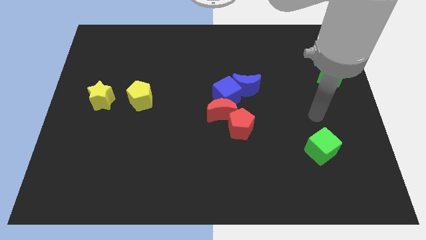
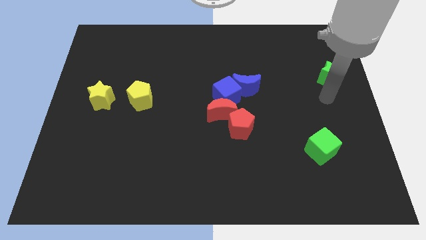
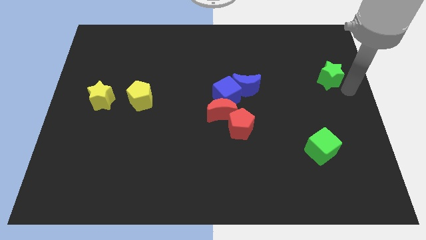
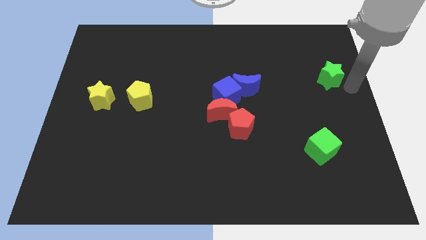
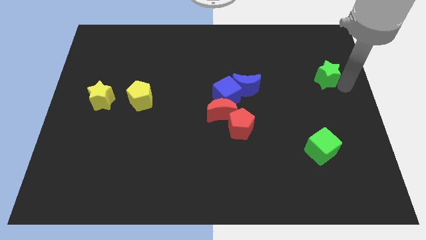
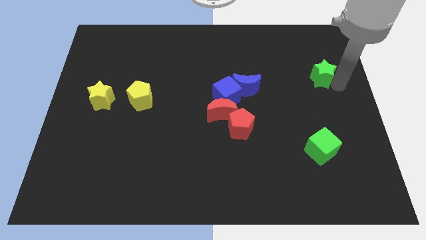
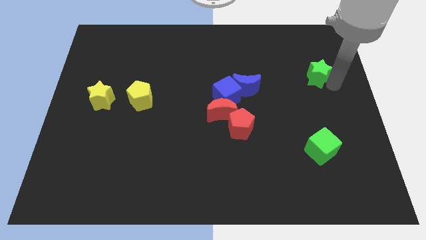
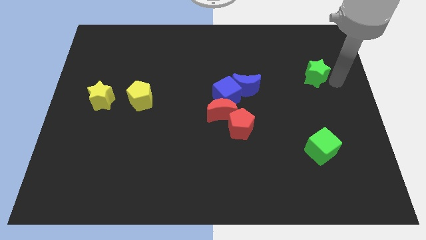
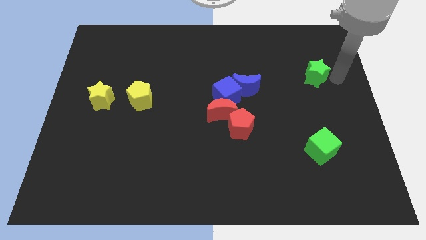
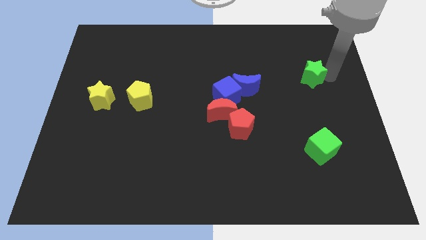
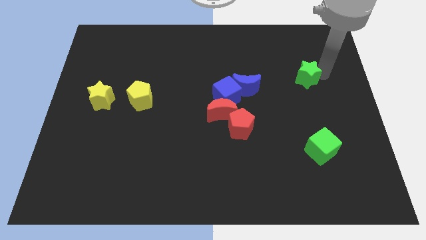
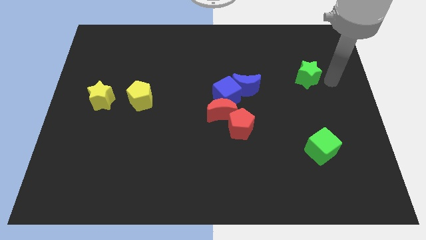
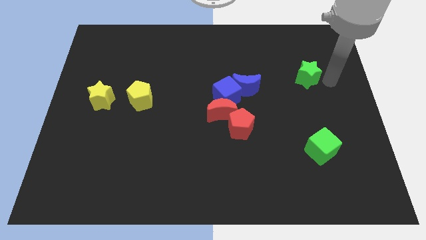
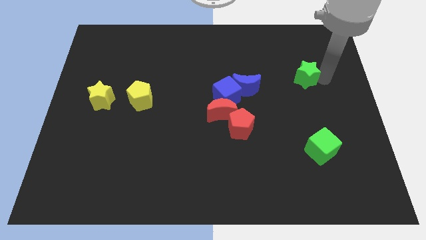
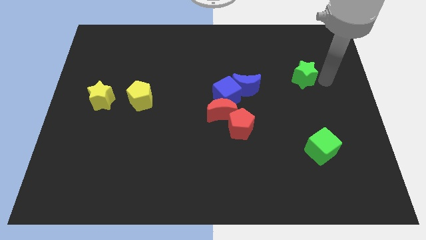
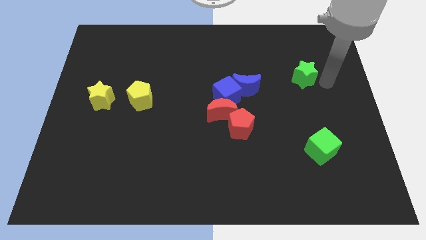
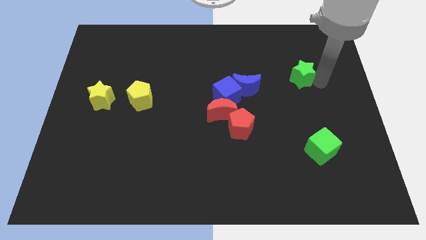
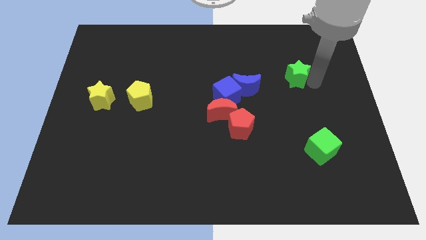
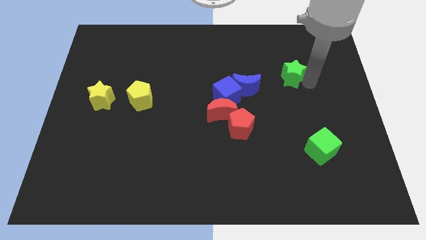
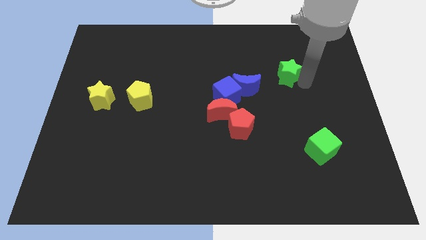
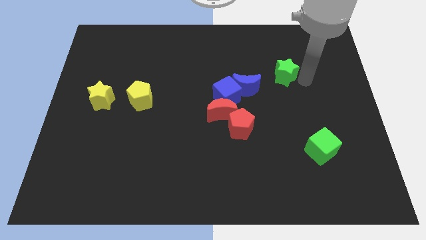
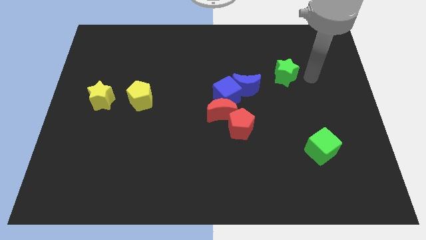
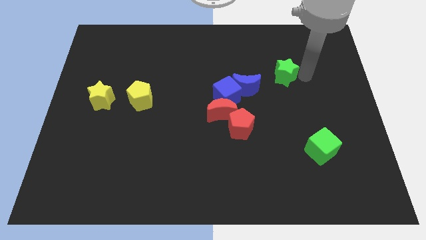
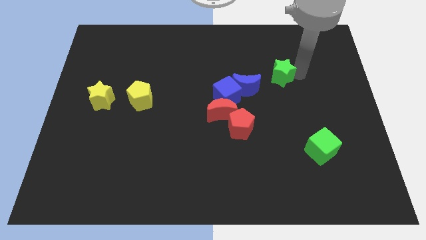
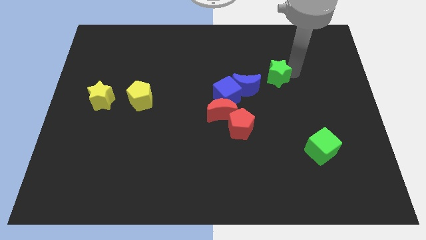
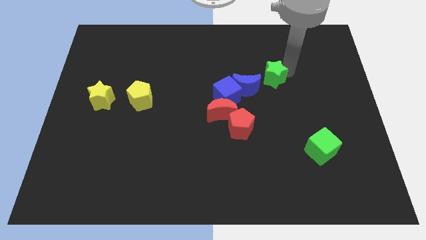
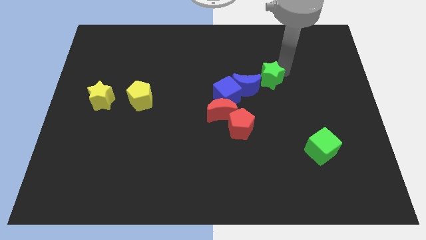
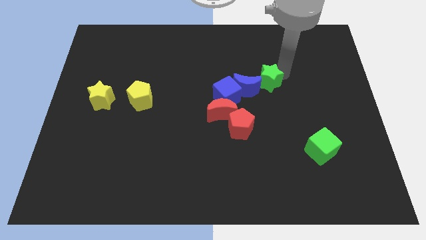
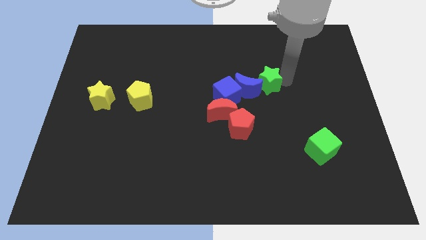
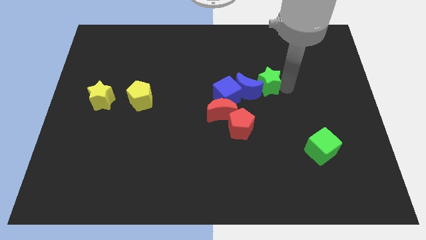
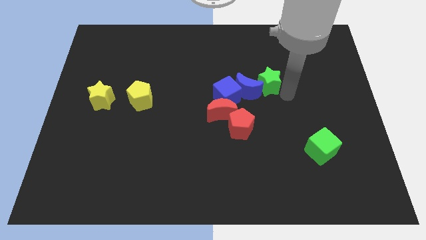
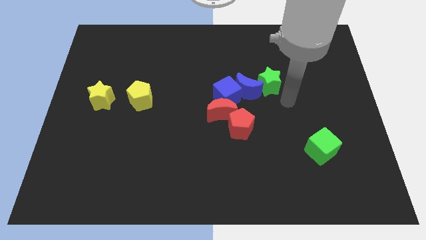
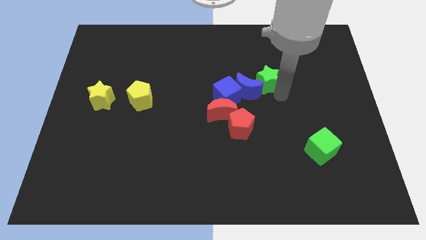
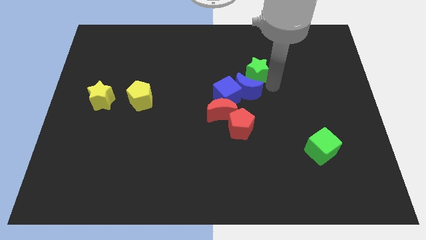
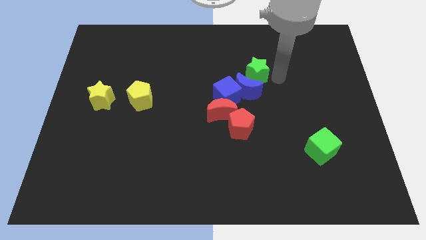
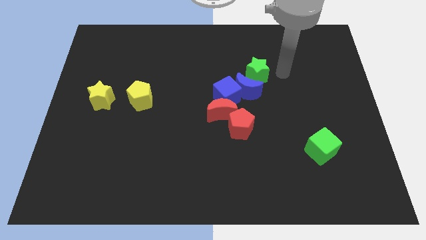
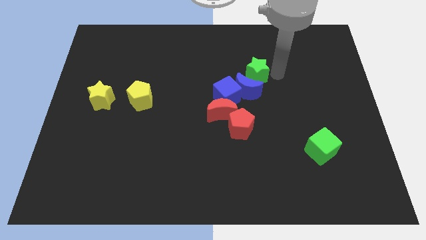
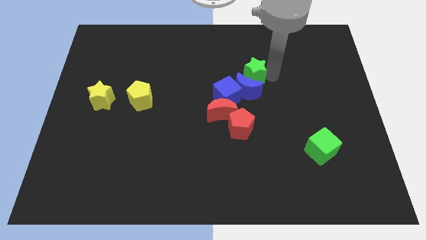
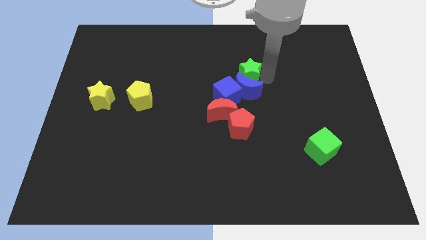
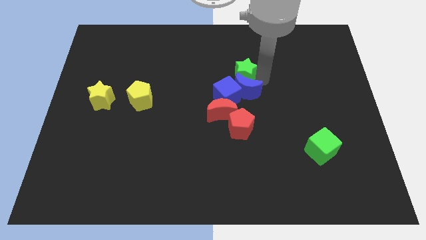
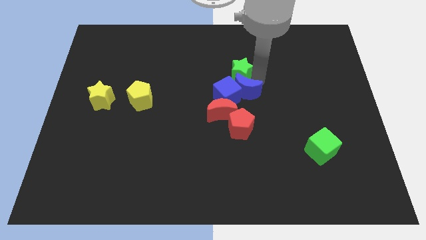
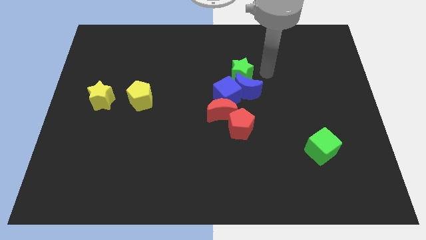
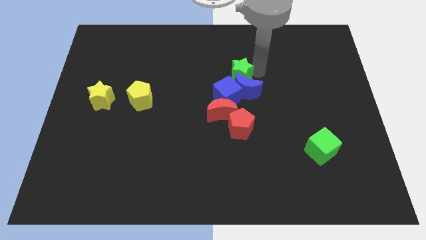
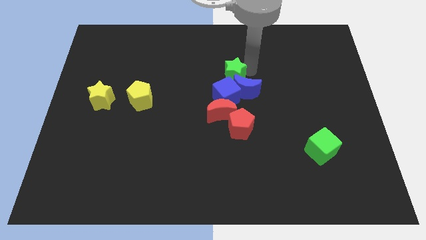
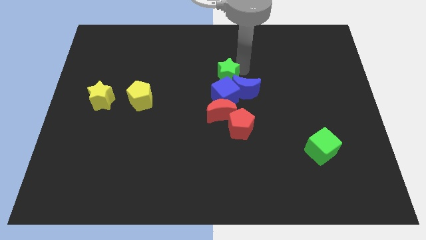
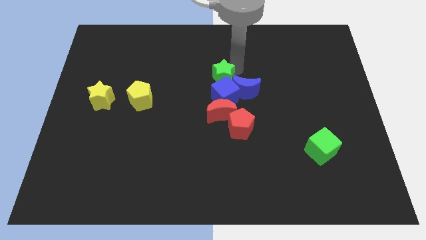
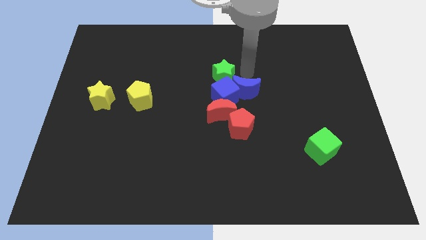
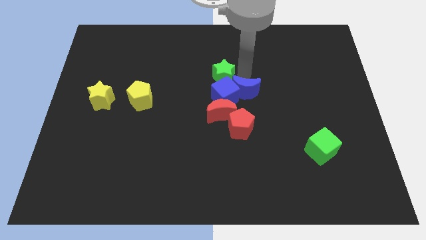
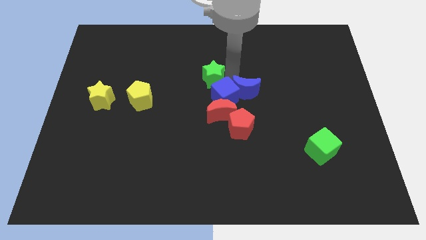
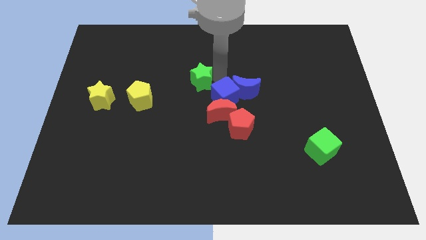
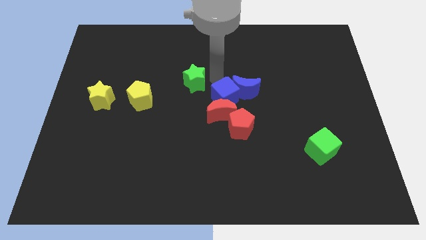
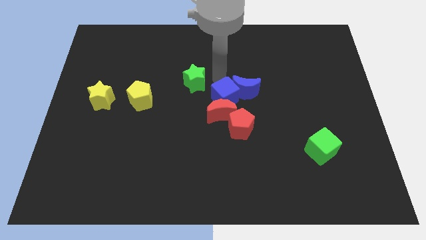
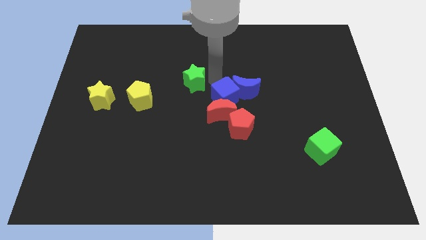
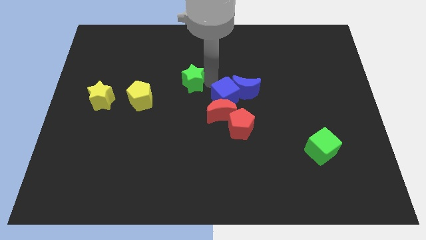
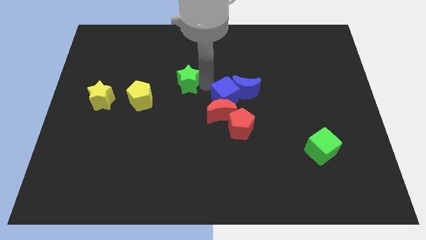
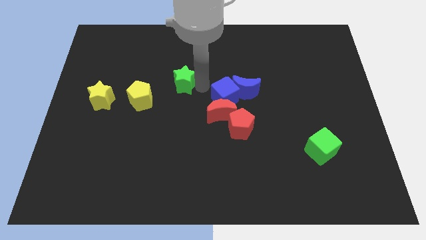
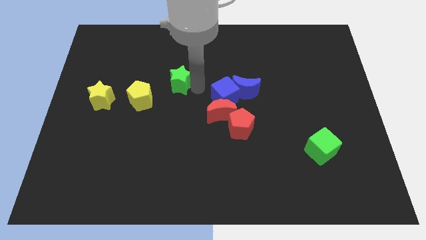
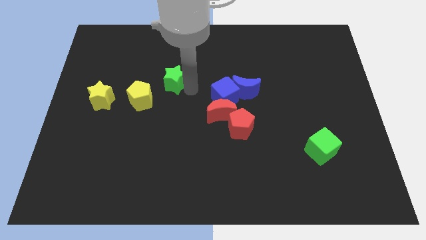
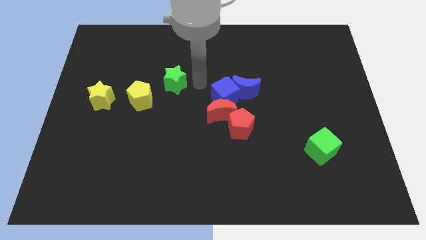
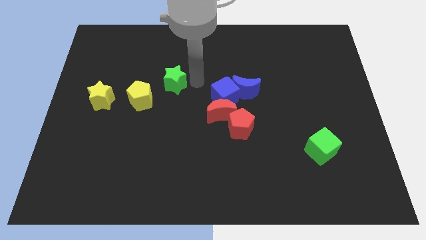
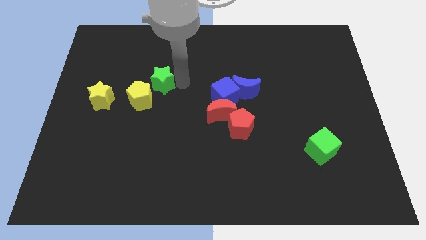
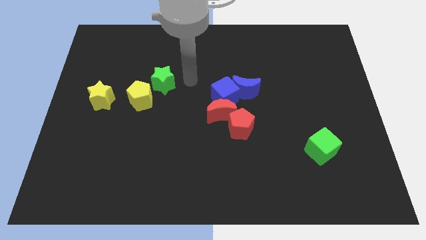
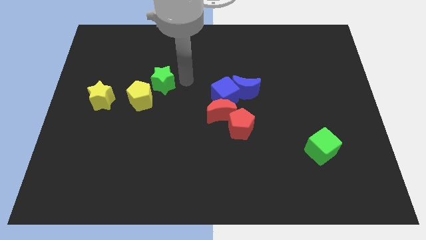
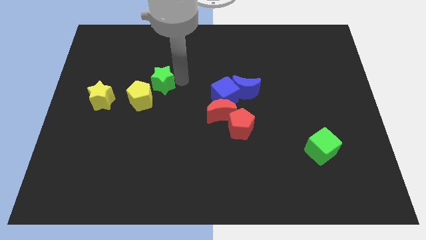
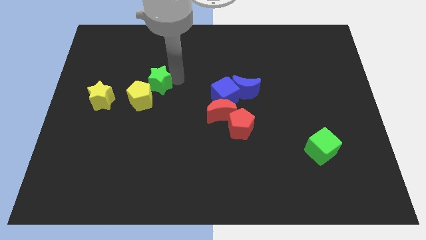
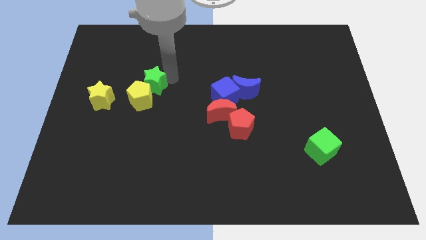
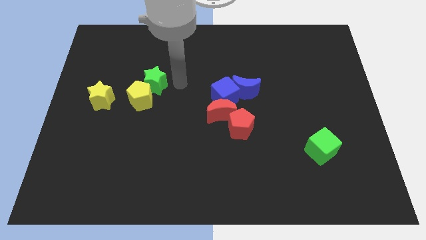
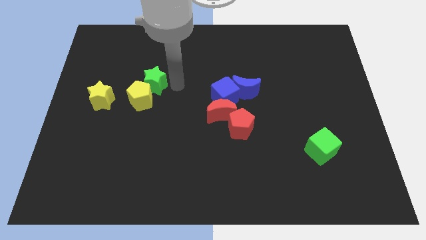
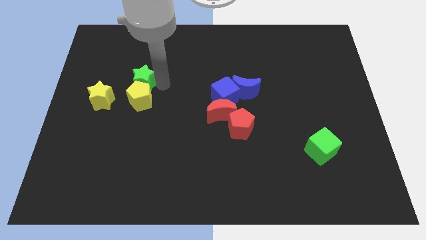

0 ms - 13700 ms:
slide the green star to the top right of the yellow star
